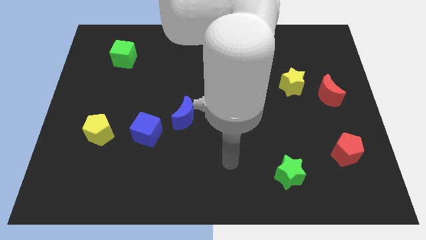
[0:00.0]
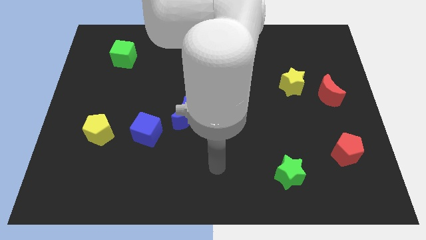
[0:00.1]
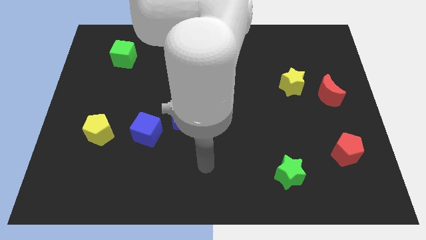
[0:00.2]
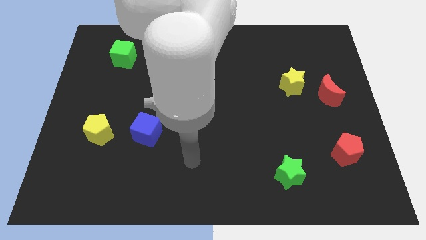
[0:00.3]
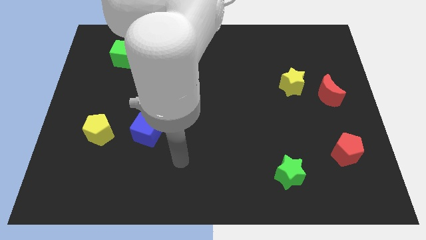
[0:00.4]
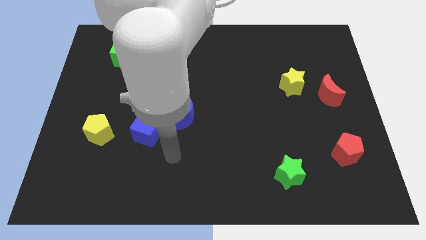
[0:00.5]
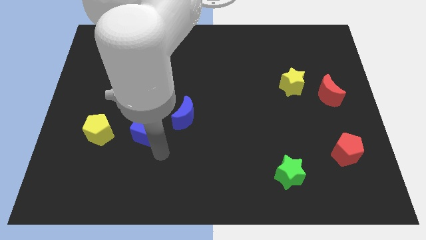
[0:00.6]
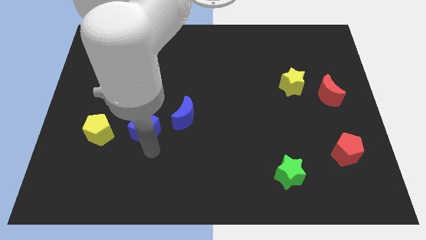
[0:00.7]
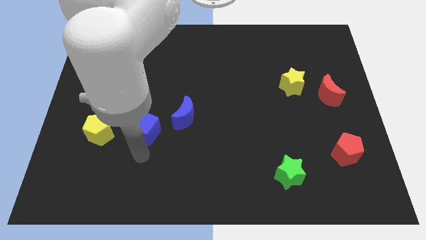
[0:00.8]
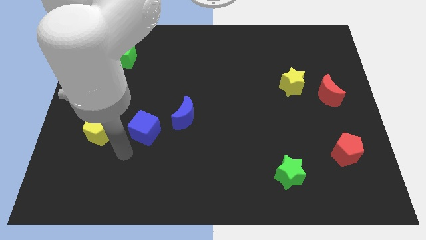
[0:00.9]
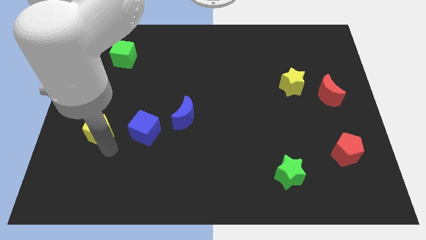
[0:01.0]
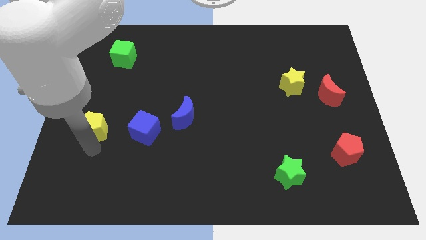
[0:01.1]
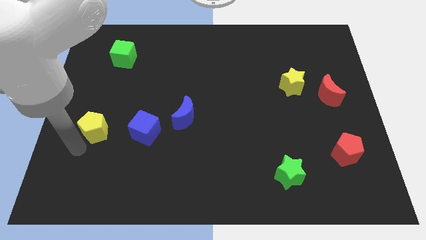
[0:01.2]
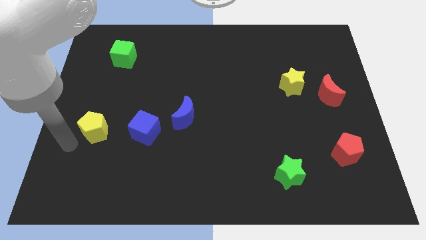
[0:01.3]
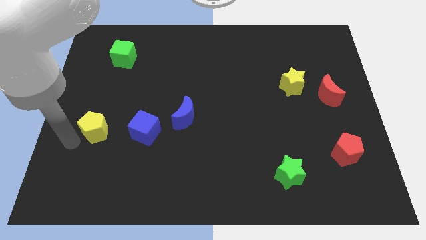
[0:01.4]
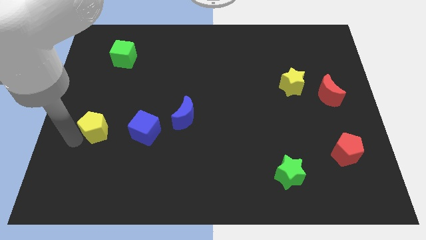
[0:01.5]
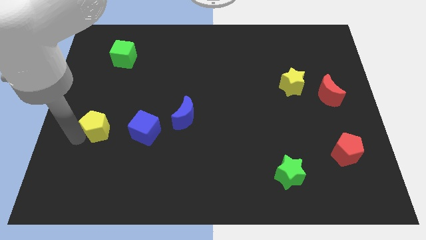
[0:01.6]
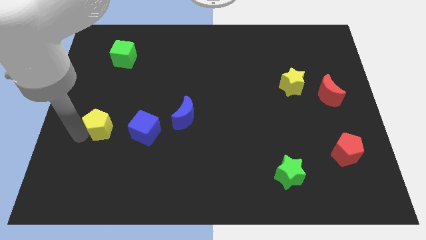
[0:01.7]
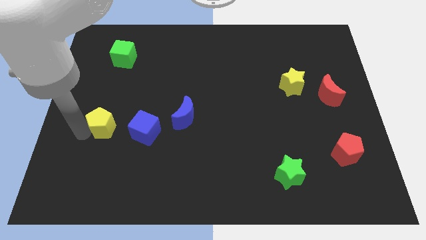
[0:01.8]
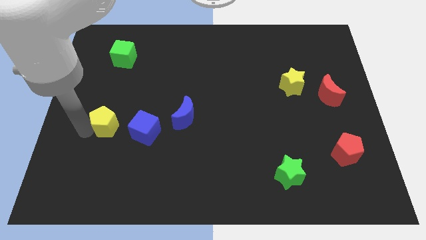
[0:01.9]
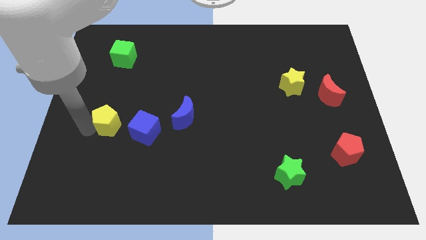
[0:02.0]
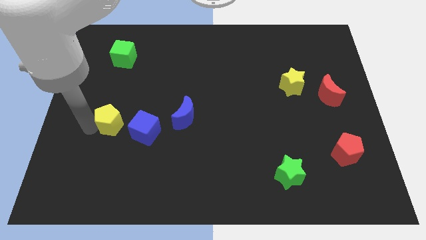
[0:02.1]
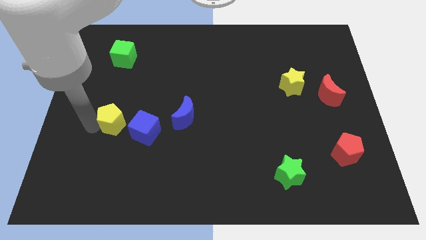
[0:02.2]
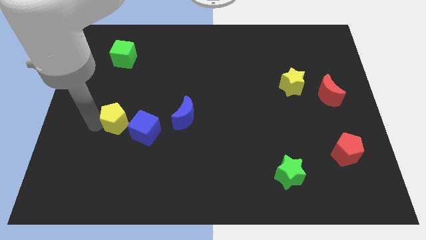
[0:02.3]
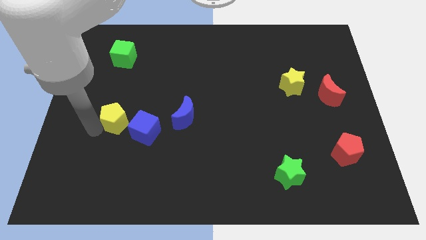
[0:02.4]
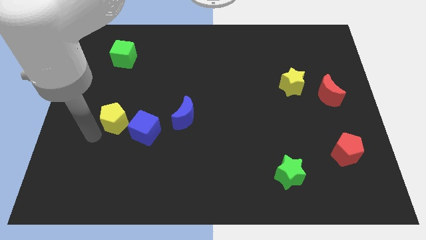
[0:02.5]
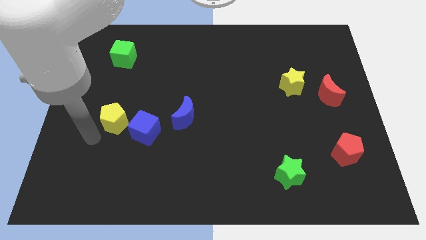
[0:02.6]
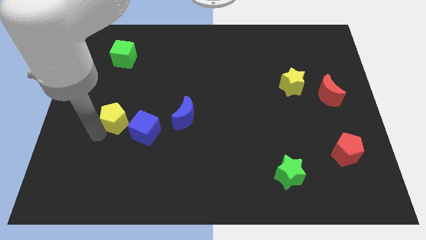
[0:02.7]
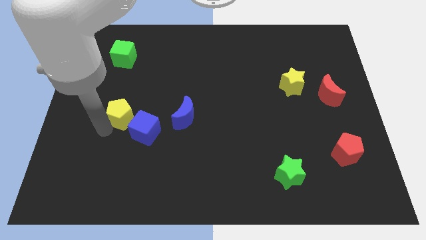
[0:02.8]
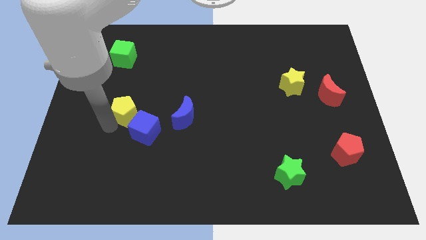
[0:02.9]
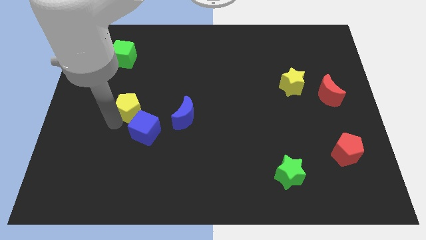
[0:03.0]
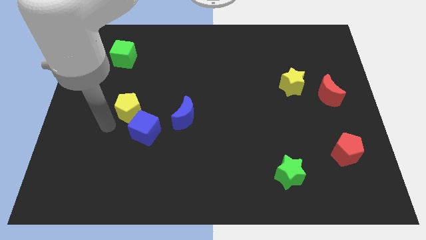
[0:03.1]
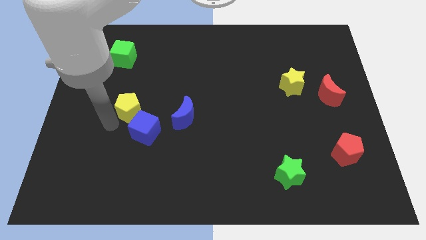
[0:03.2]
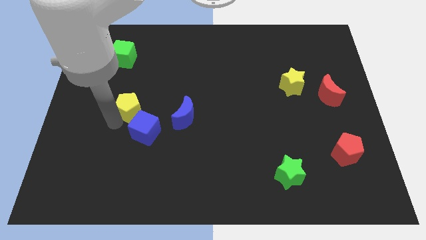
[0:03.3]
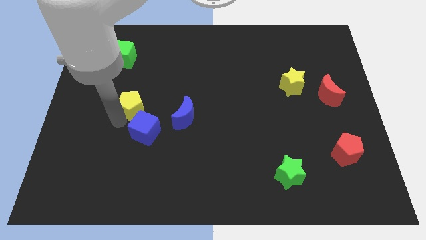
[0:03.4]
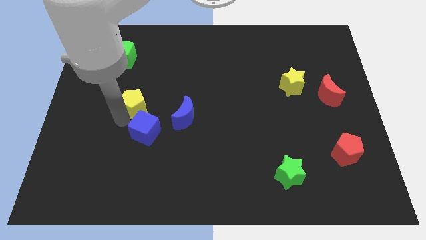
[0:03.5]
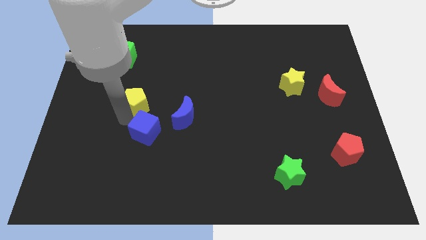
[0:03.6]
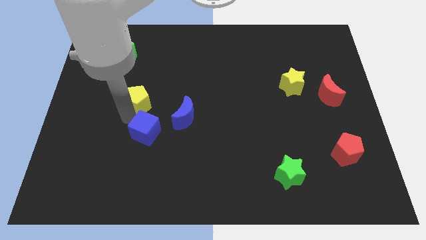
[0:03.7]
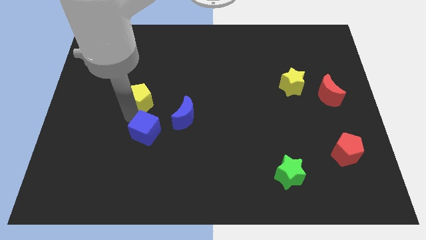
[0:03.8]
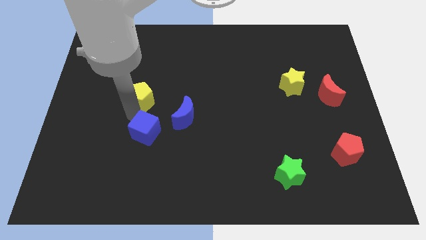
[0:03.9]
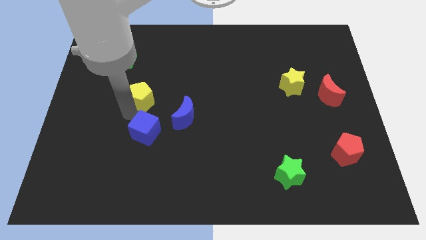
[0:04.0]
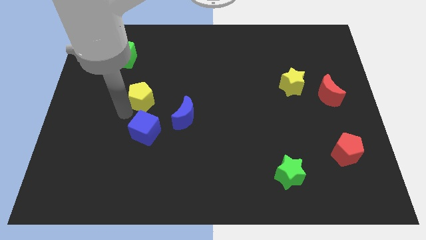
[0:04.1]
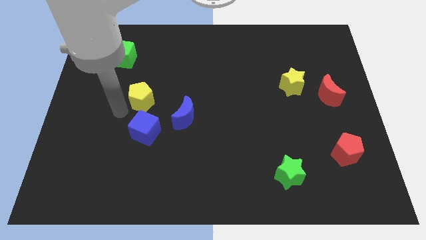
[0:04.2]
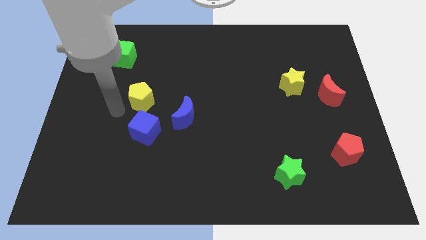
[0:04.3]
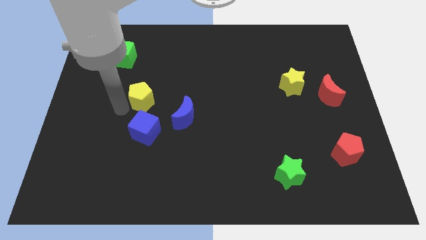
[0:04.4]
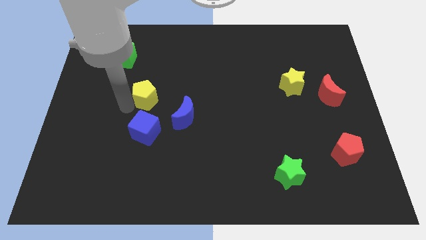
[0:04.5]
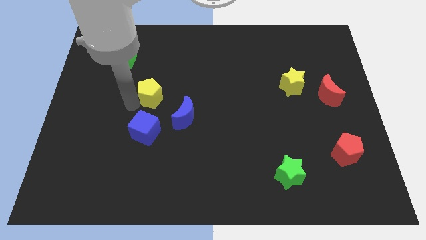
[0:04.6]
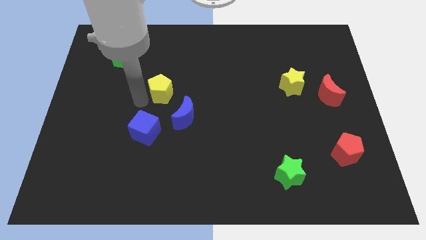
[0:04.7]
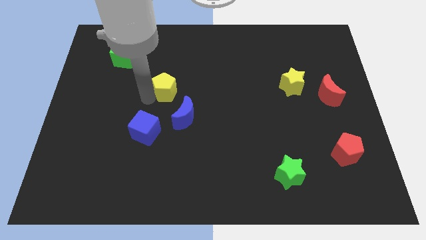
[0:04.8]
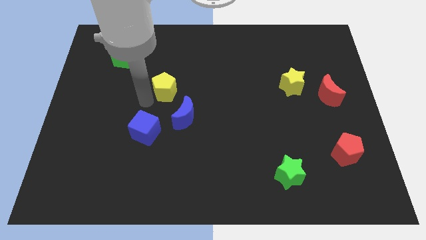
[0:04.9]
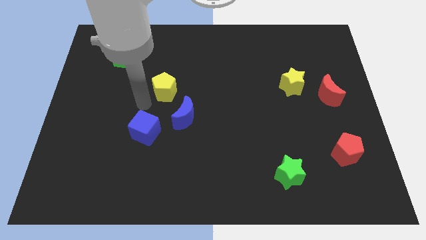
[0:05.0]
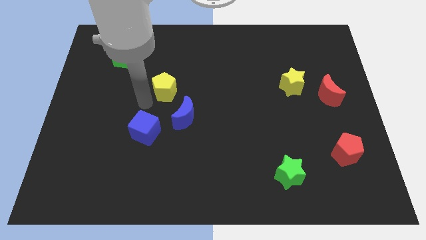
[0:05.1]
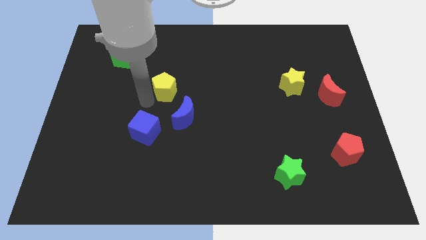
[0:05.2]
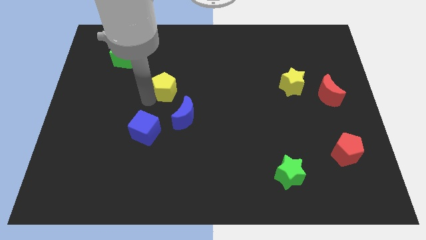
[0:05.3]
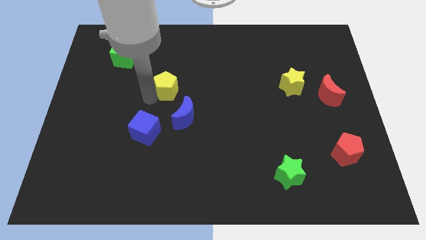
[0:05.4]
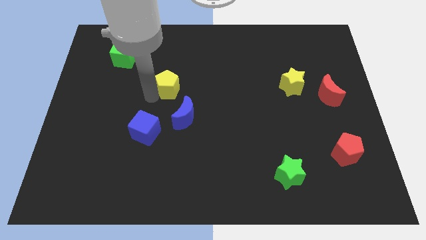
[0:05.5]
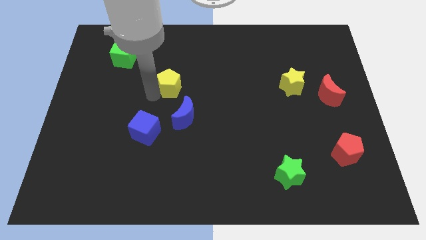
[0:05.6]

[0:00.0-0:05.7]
slide the yellow pentagon upwards and right diagonally

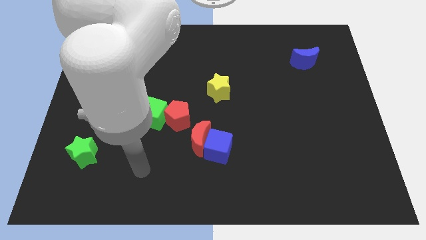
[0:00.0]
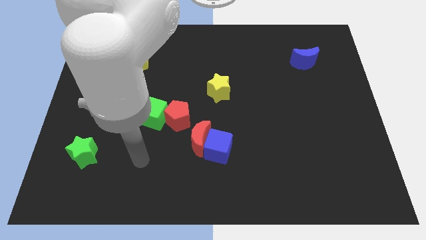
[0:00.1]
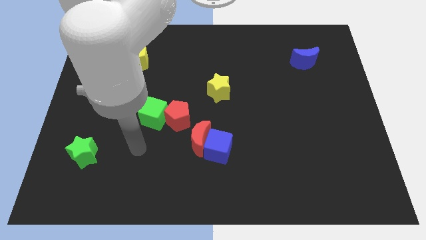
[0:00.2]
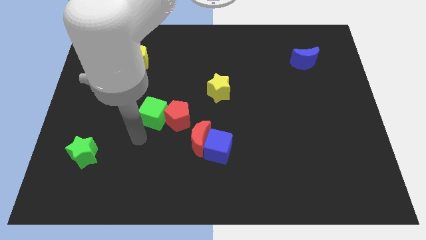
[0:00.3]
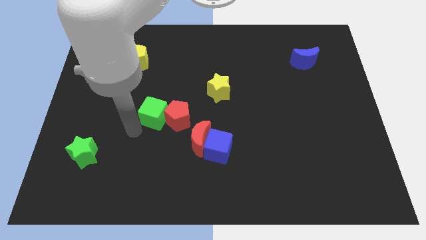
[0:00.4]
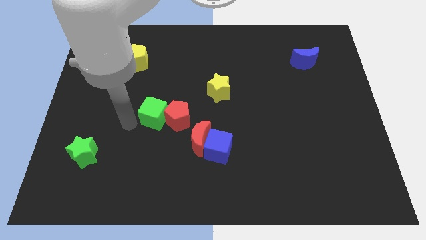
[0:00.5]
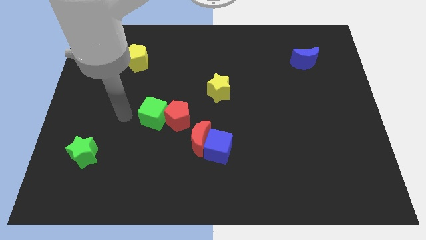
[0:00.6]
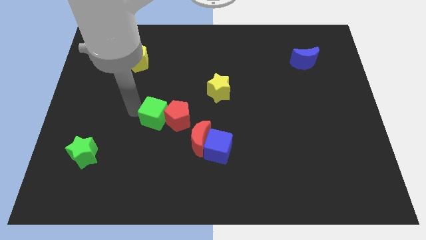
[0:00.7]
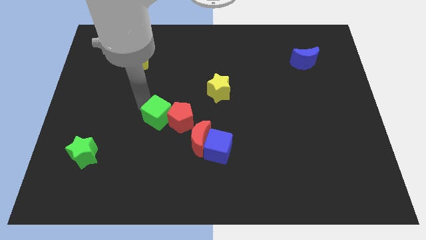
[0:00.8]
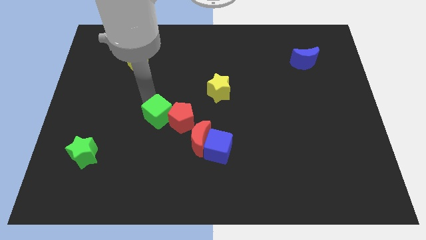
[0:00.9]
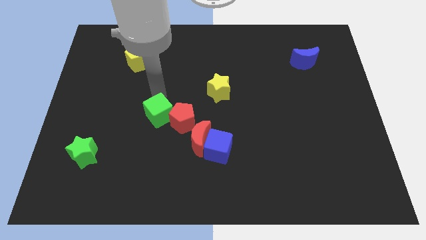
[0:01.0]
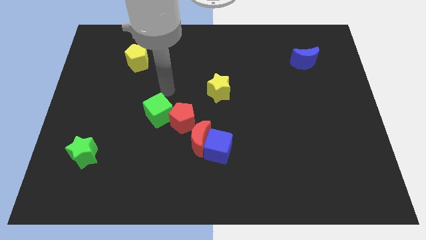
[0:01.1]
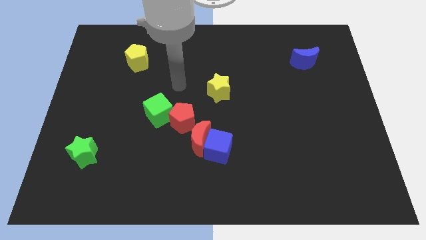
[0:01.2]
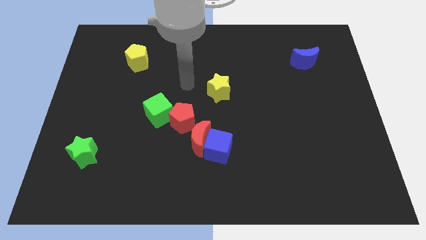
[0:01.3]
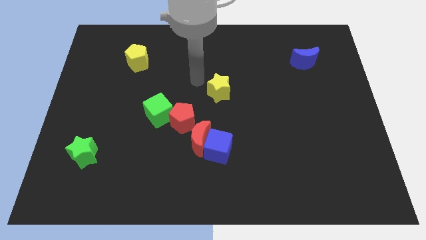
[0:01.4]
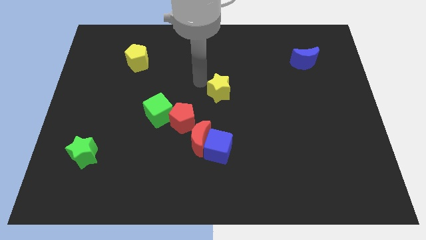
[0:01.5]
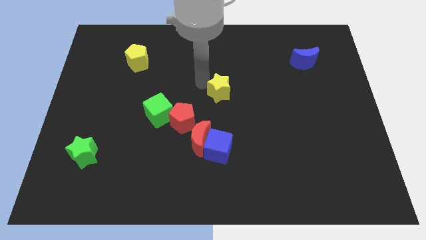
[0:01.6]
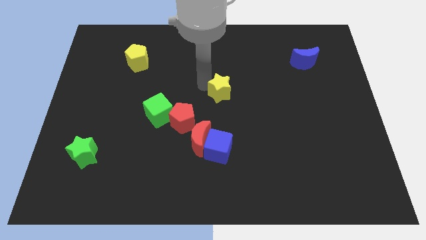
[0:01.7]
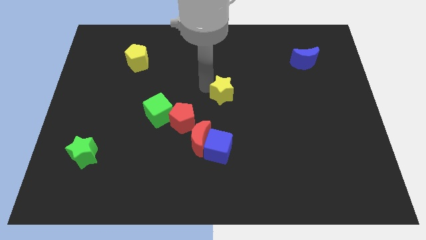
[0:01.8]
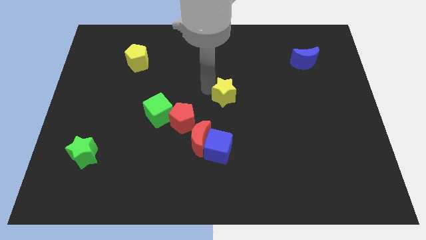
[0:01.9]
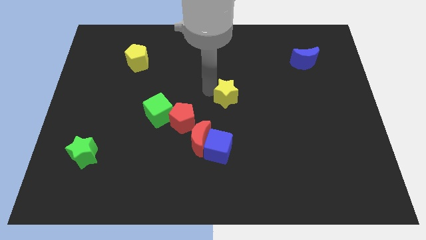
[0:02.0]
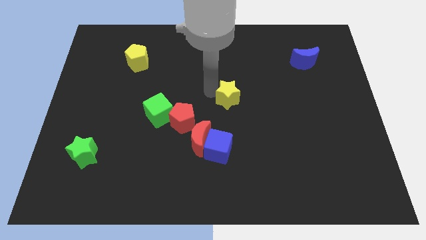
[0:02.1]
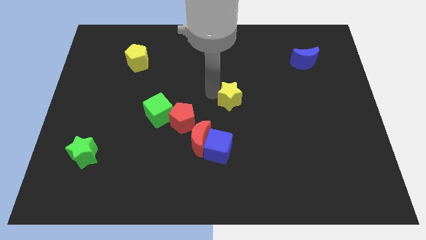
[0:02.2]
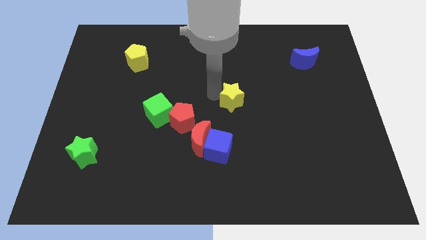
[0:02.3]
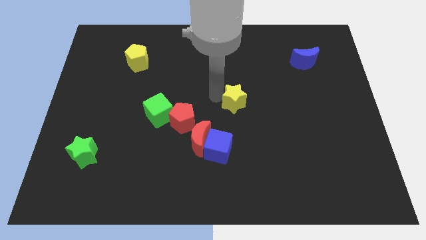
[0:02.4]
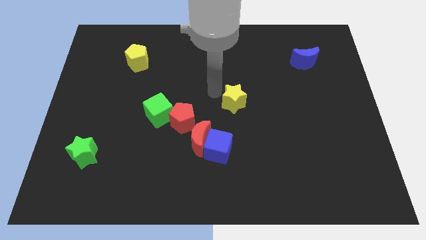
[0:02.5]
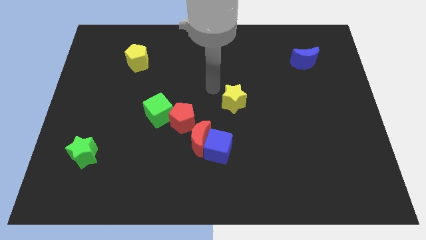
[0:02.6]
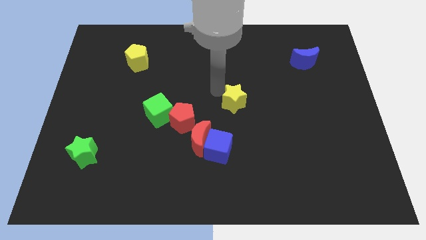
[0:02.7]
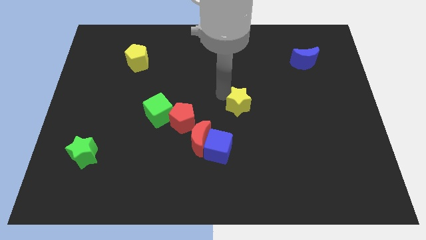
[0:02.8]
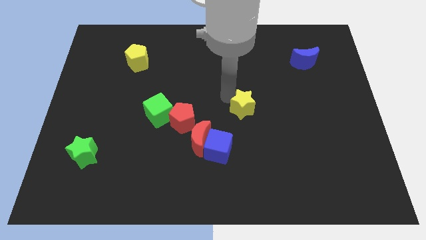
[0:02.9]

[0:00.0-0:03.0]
push the yellow star a little bit downwards and then right
